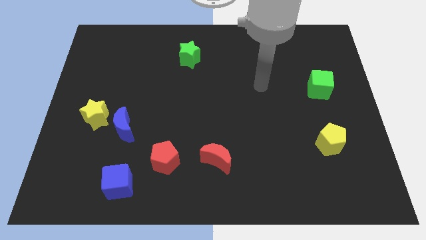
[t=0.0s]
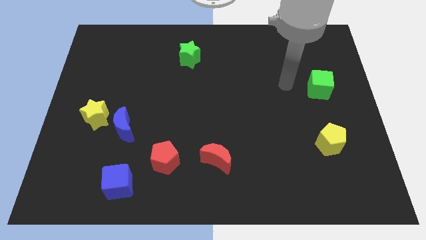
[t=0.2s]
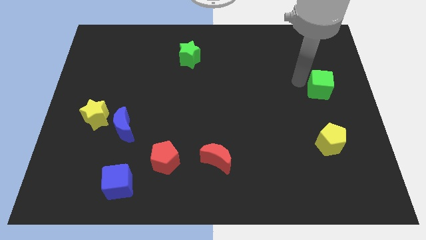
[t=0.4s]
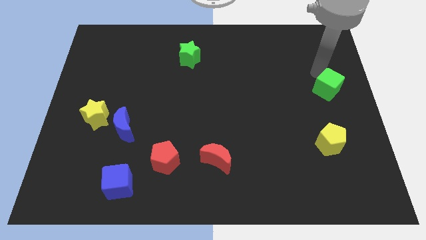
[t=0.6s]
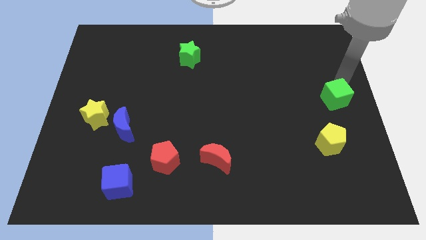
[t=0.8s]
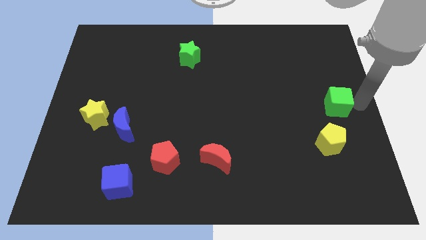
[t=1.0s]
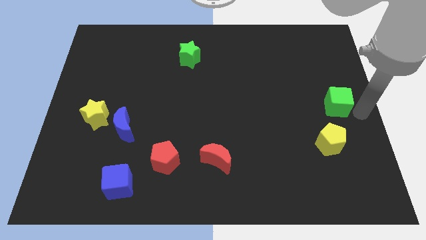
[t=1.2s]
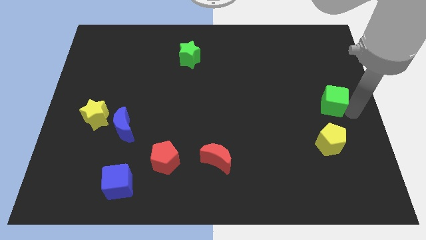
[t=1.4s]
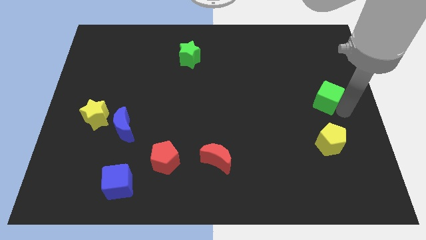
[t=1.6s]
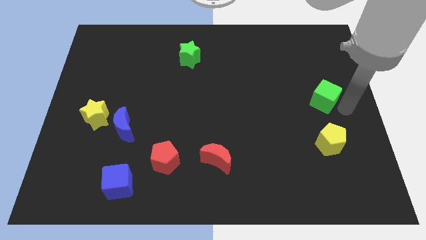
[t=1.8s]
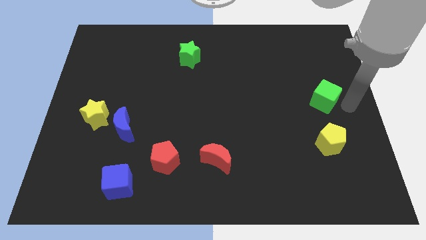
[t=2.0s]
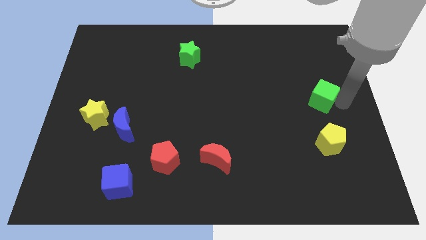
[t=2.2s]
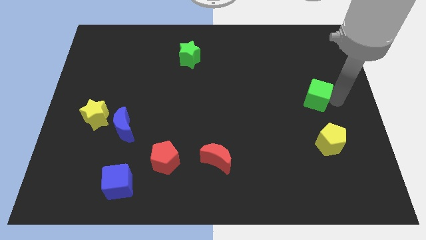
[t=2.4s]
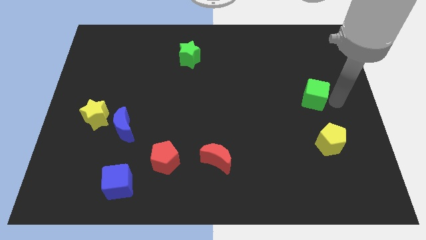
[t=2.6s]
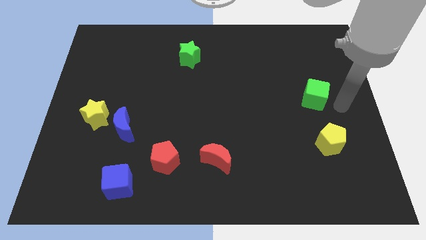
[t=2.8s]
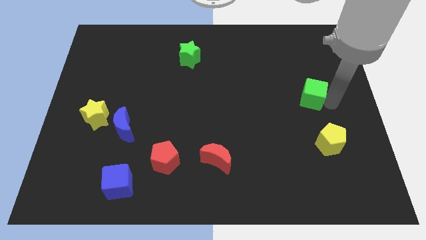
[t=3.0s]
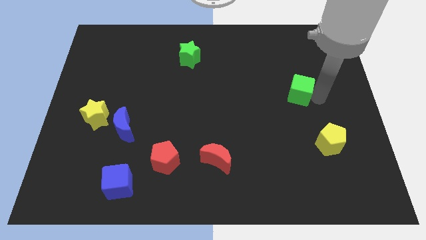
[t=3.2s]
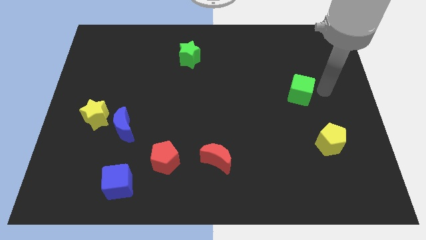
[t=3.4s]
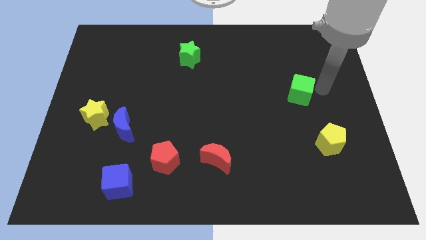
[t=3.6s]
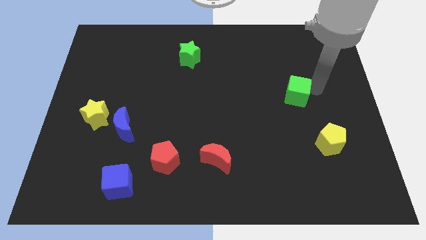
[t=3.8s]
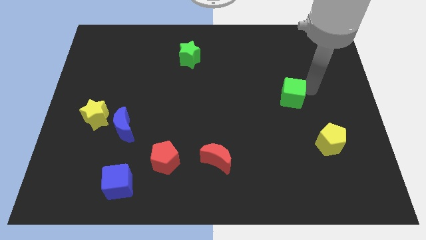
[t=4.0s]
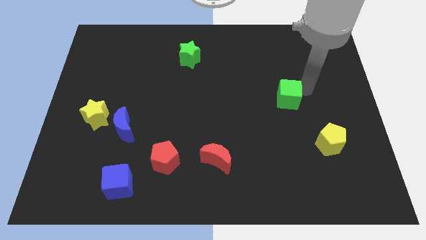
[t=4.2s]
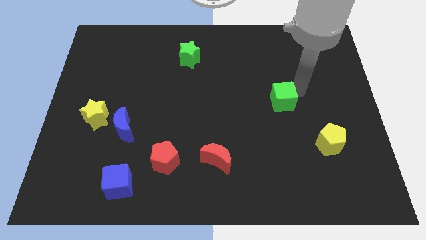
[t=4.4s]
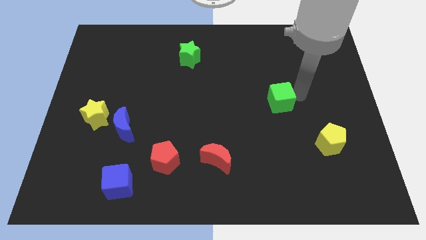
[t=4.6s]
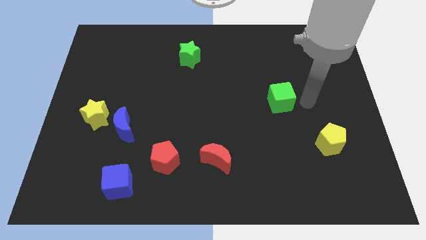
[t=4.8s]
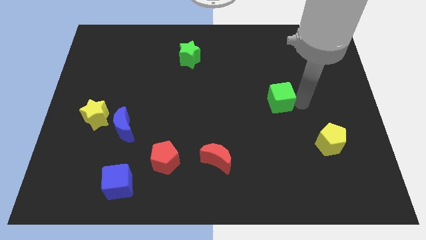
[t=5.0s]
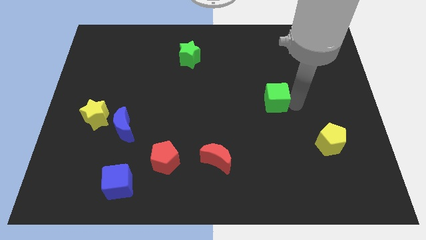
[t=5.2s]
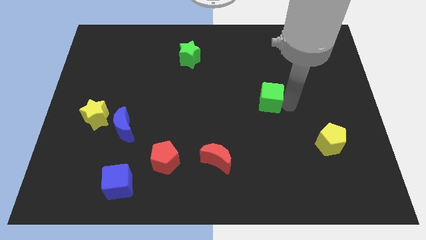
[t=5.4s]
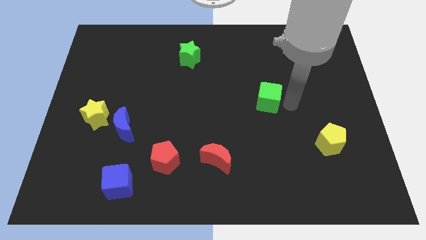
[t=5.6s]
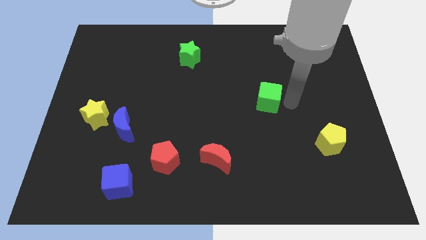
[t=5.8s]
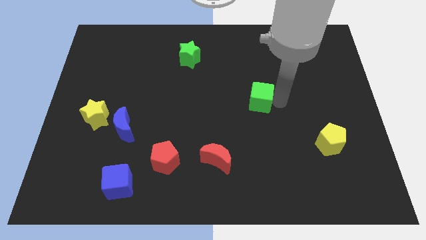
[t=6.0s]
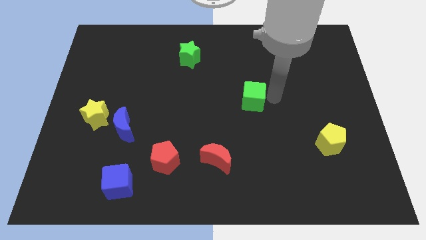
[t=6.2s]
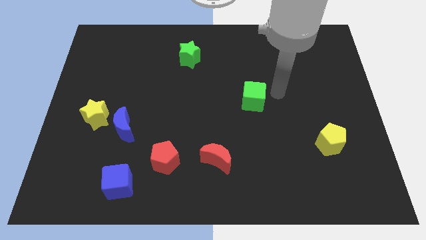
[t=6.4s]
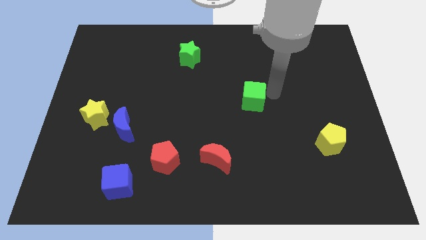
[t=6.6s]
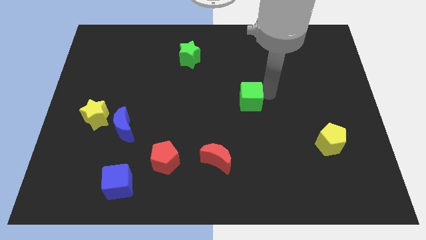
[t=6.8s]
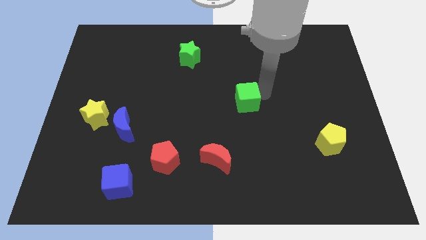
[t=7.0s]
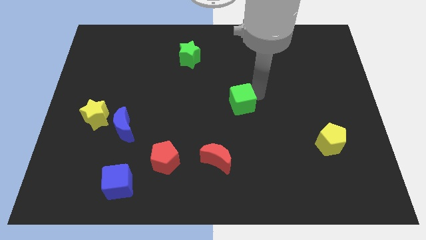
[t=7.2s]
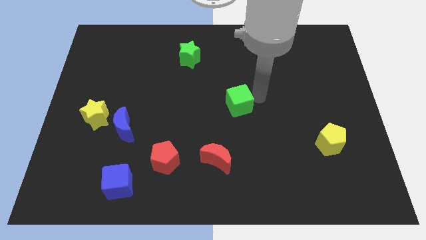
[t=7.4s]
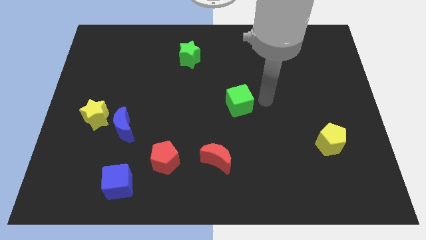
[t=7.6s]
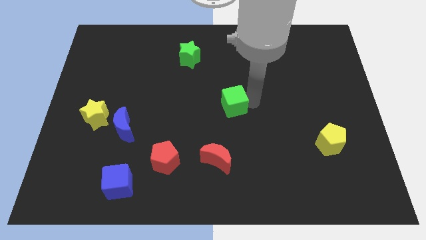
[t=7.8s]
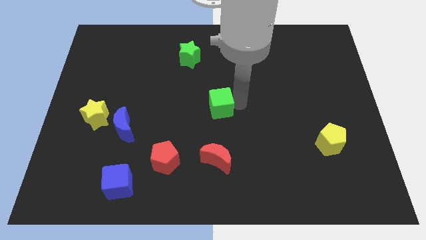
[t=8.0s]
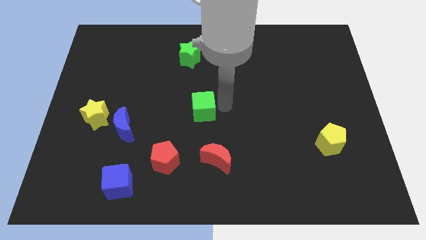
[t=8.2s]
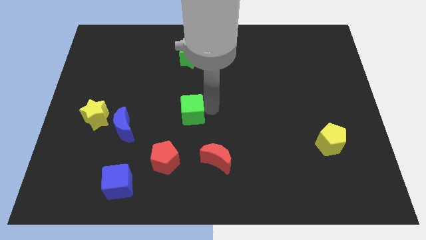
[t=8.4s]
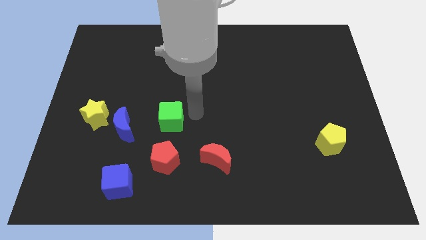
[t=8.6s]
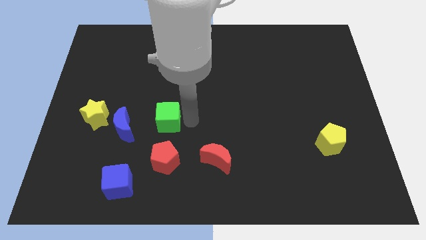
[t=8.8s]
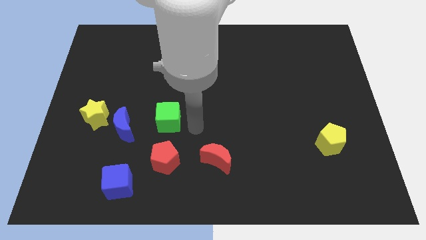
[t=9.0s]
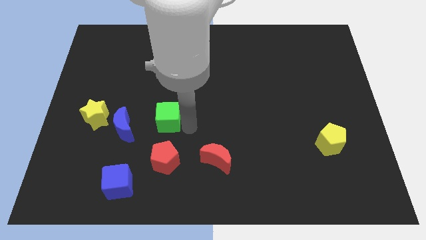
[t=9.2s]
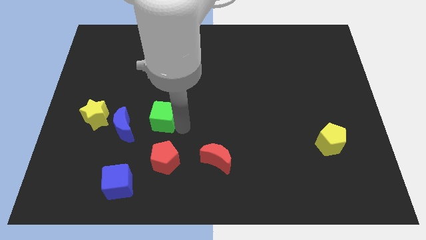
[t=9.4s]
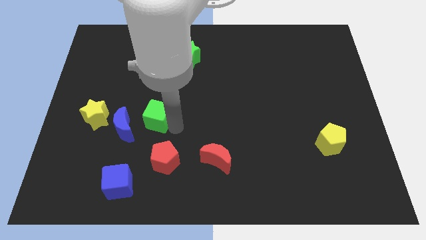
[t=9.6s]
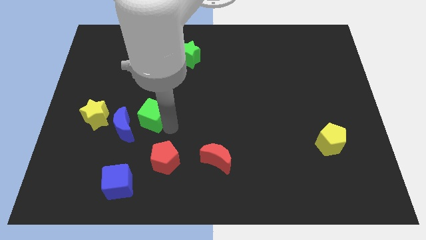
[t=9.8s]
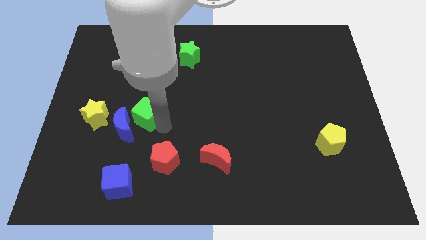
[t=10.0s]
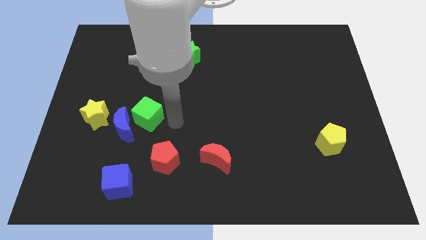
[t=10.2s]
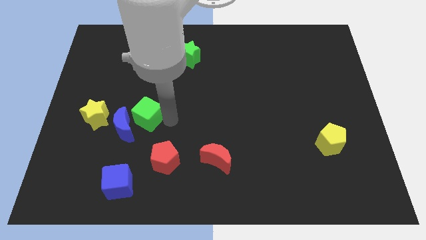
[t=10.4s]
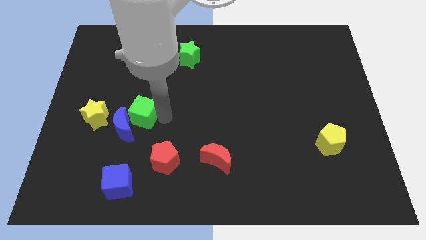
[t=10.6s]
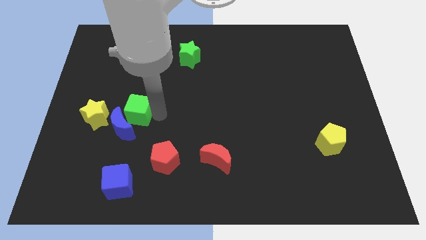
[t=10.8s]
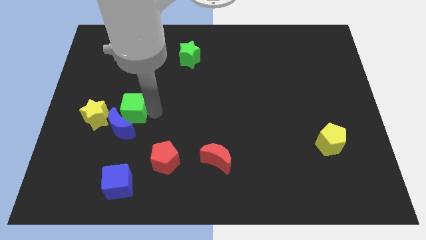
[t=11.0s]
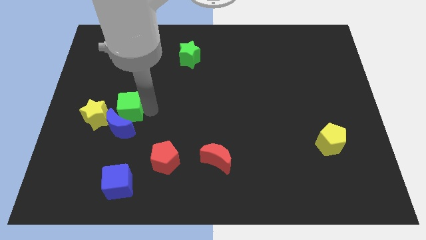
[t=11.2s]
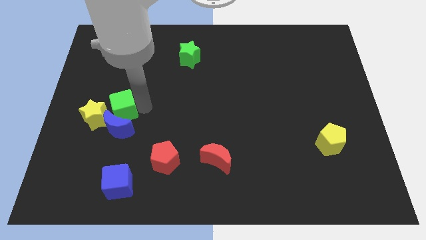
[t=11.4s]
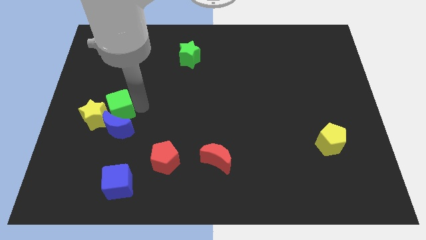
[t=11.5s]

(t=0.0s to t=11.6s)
slide the green cube next to the yellow star
